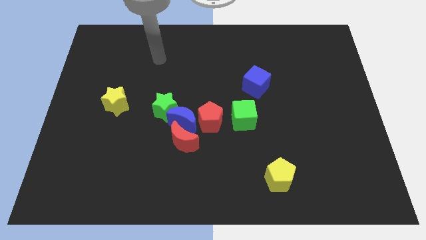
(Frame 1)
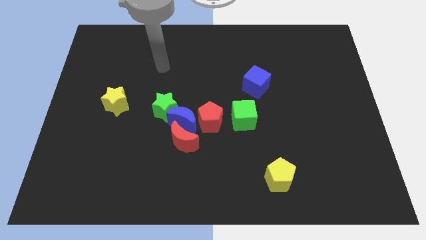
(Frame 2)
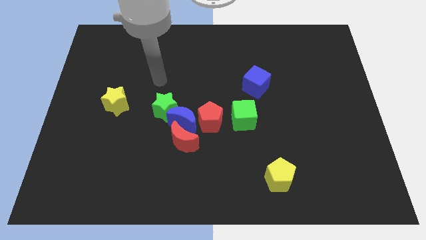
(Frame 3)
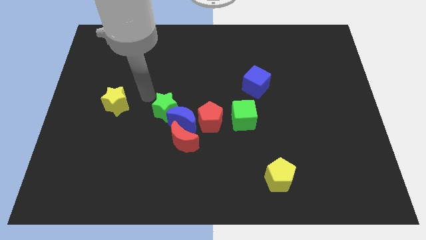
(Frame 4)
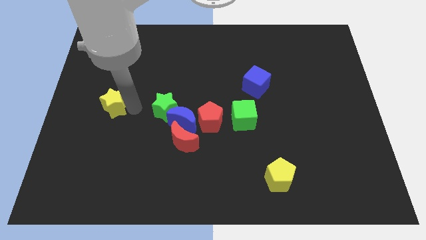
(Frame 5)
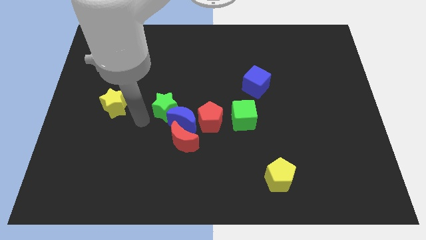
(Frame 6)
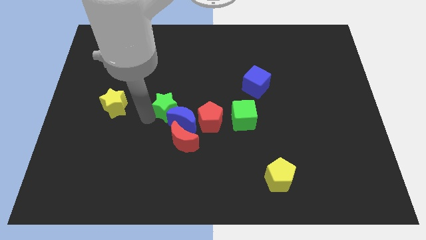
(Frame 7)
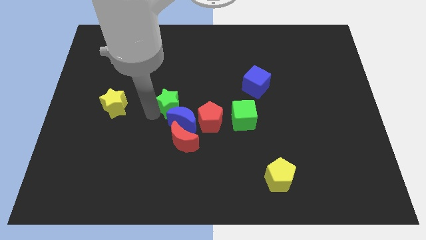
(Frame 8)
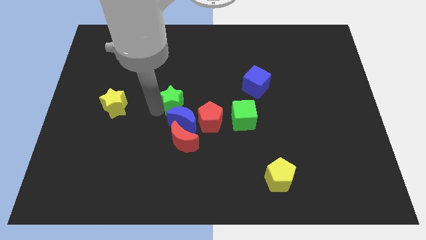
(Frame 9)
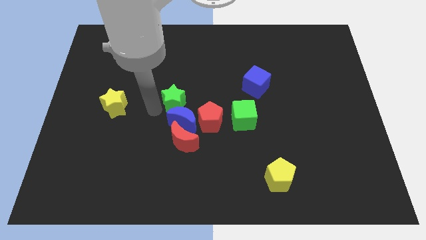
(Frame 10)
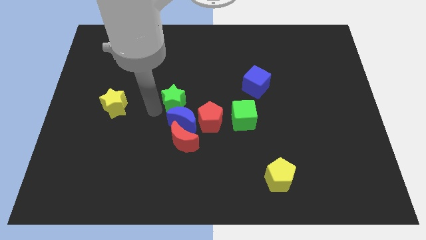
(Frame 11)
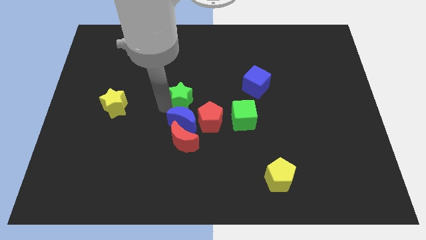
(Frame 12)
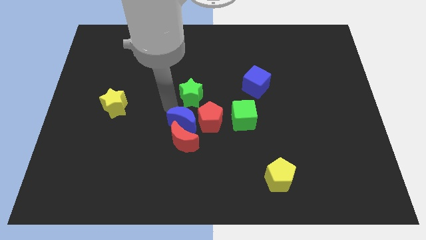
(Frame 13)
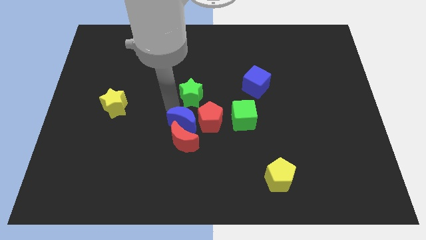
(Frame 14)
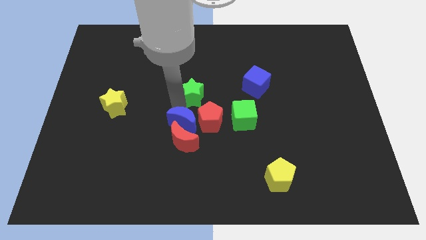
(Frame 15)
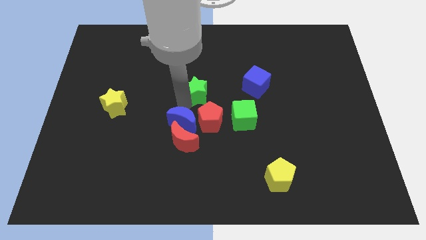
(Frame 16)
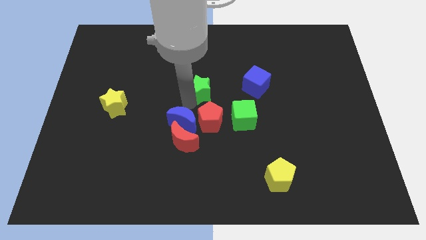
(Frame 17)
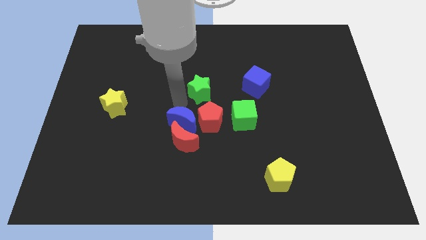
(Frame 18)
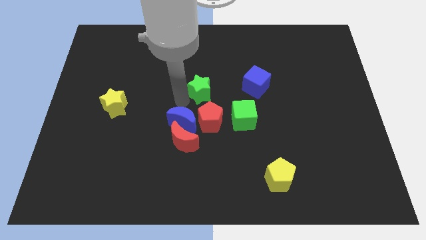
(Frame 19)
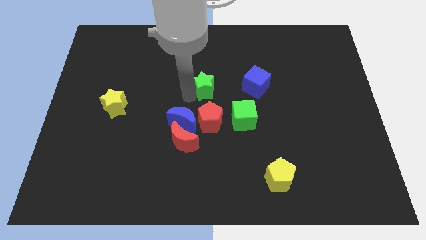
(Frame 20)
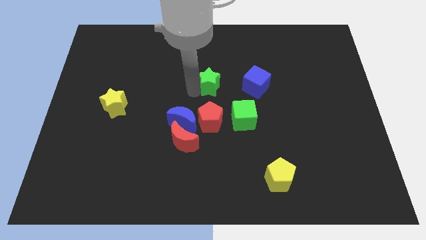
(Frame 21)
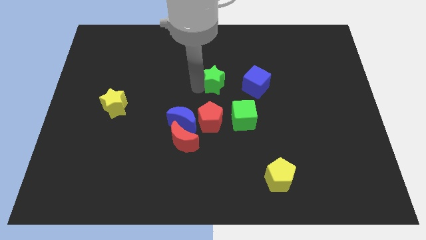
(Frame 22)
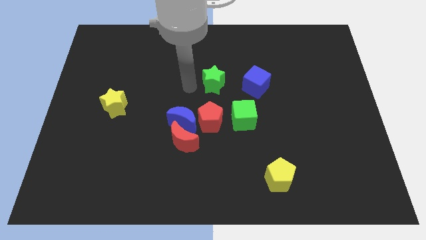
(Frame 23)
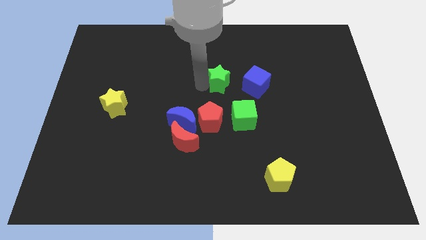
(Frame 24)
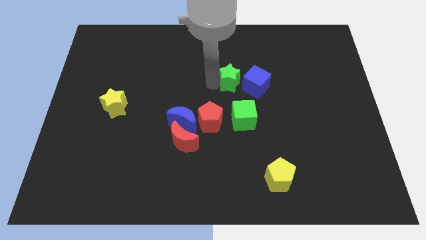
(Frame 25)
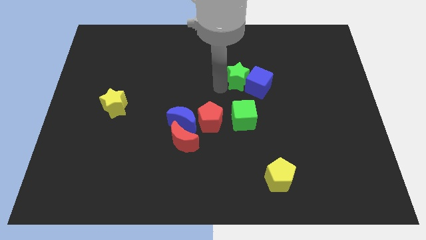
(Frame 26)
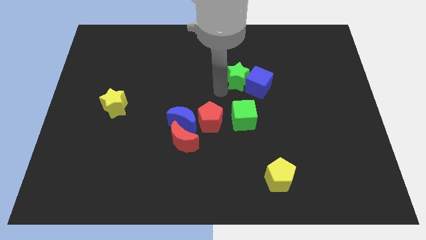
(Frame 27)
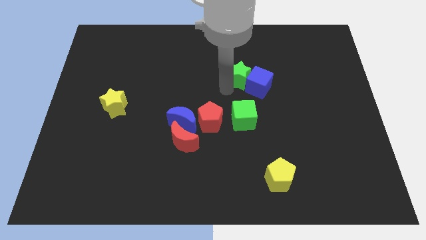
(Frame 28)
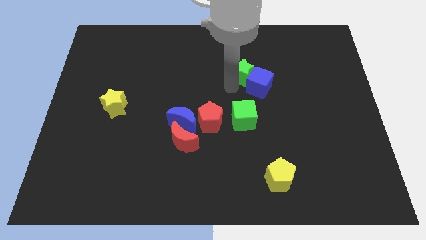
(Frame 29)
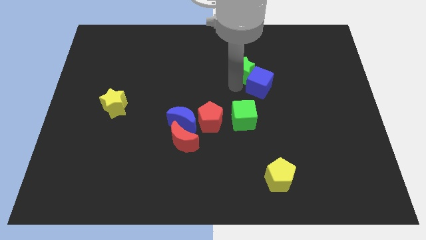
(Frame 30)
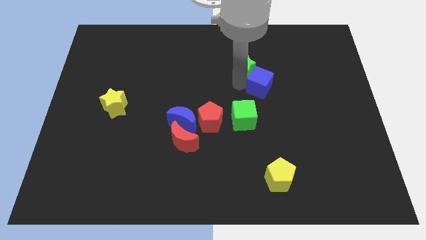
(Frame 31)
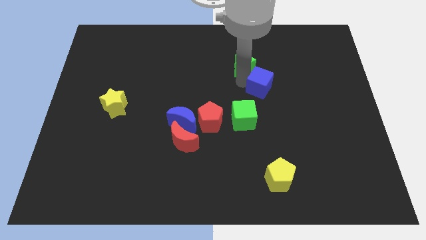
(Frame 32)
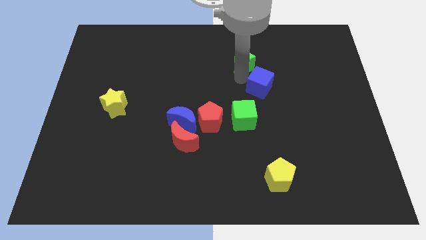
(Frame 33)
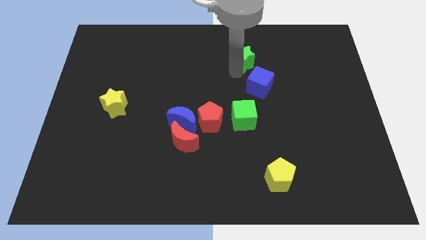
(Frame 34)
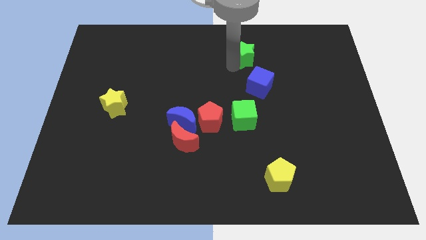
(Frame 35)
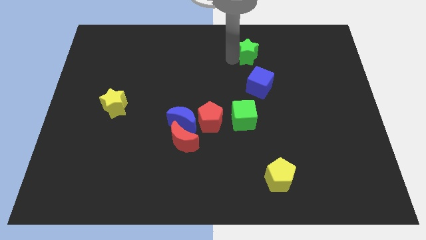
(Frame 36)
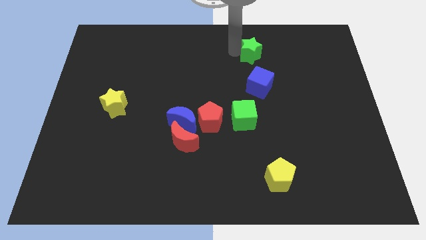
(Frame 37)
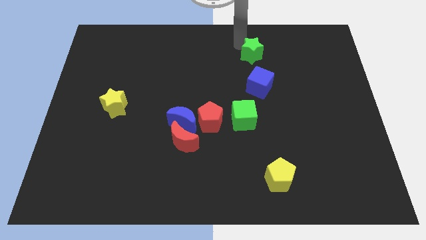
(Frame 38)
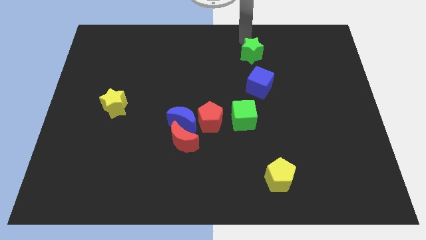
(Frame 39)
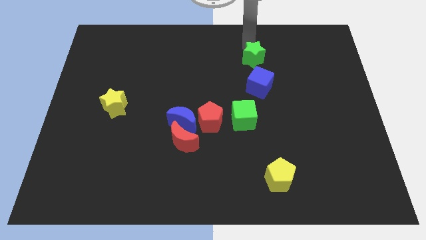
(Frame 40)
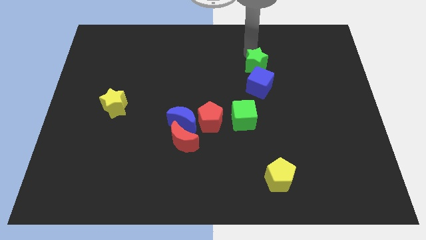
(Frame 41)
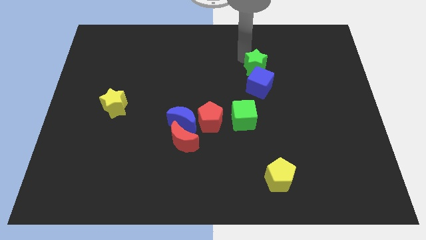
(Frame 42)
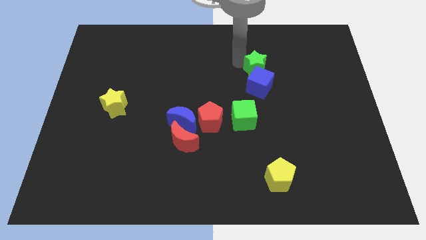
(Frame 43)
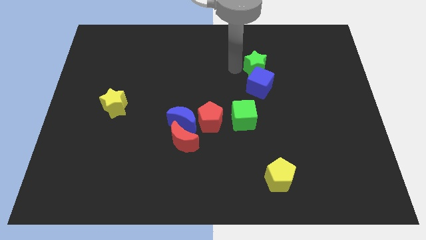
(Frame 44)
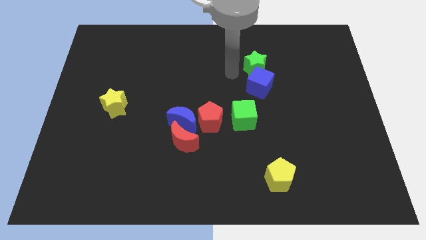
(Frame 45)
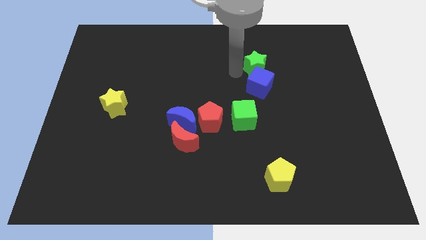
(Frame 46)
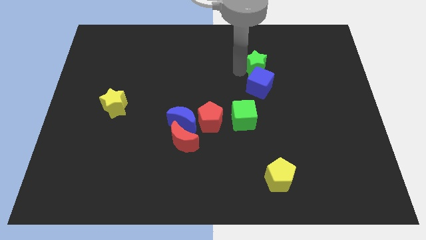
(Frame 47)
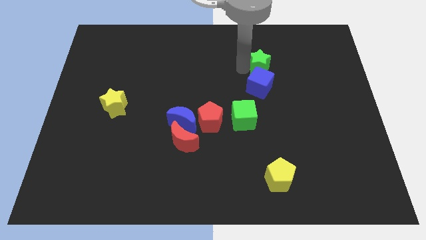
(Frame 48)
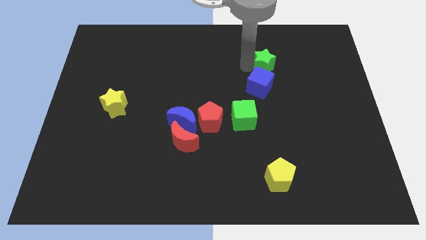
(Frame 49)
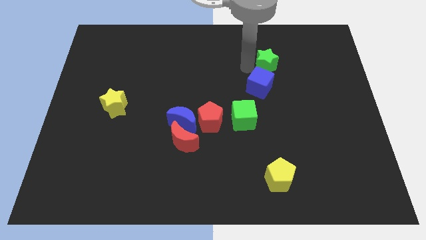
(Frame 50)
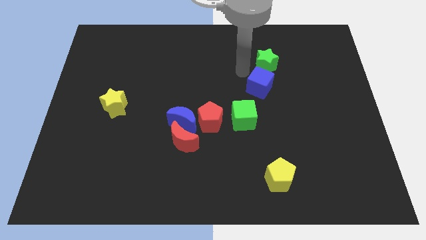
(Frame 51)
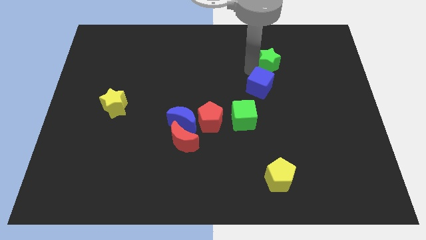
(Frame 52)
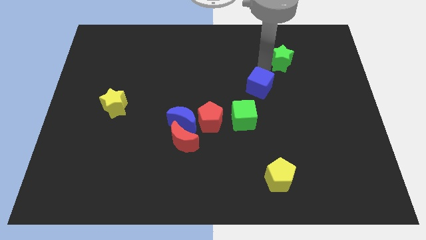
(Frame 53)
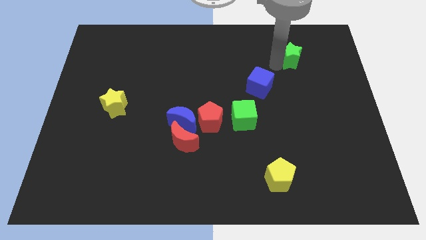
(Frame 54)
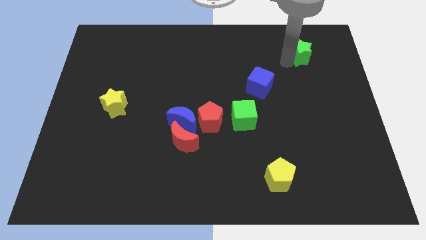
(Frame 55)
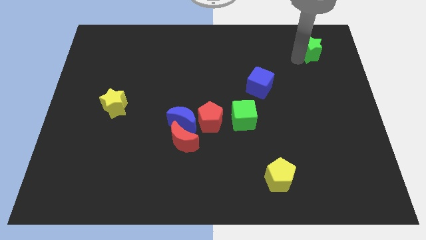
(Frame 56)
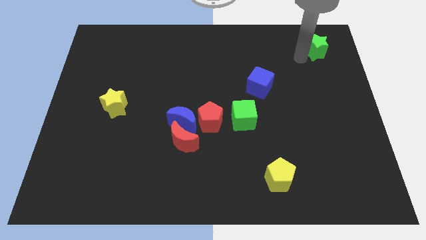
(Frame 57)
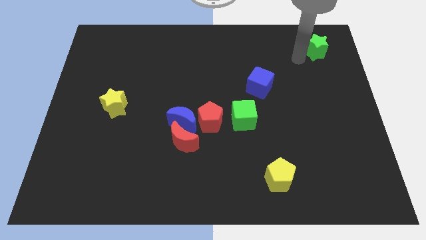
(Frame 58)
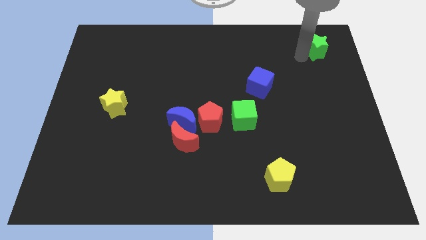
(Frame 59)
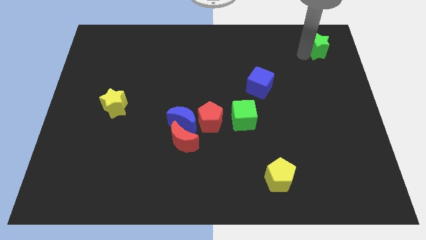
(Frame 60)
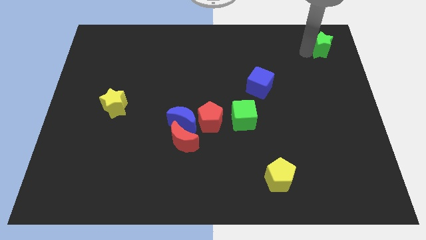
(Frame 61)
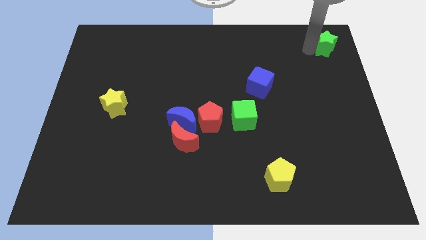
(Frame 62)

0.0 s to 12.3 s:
put the green star to the top right
